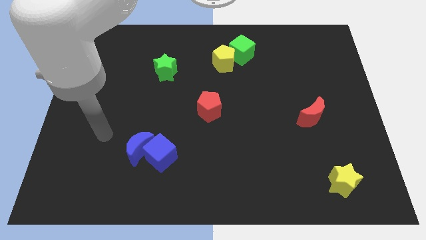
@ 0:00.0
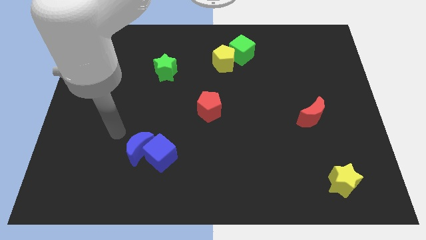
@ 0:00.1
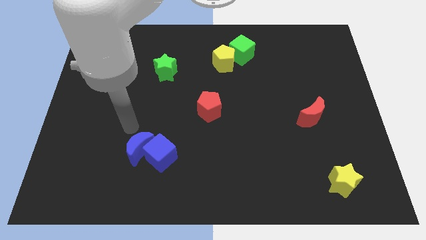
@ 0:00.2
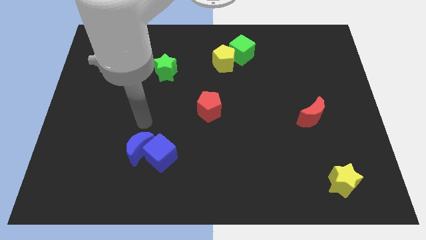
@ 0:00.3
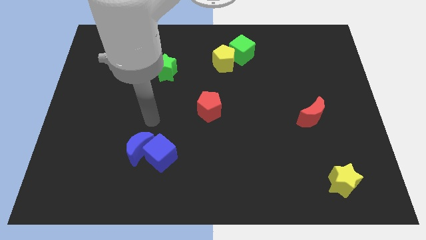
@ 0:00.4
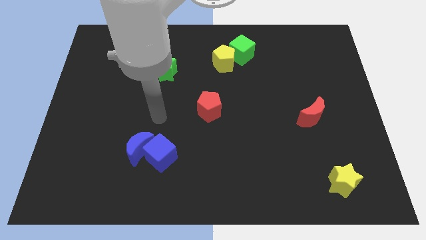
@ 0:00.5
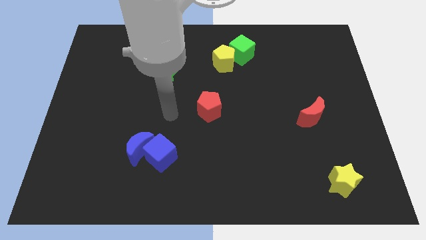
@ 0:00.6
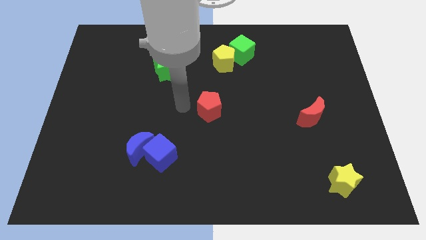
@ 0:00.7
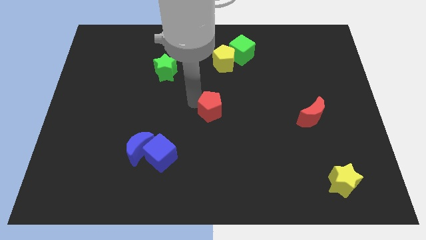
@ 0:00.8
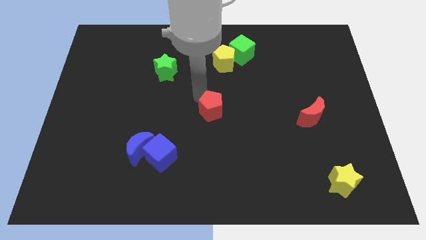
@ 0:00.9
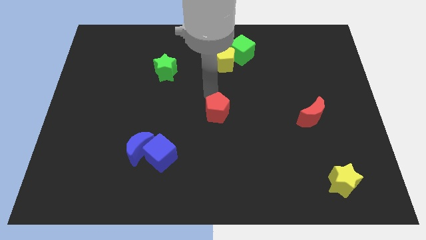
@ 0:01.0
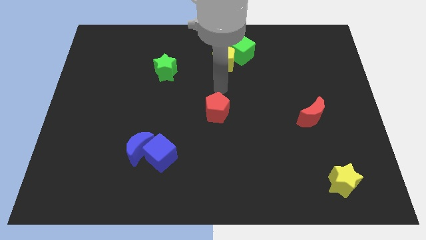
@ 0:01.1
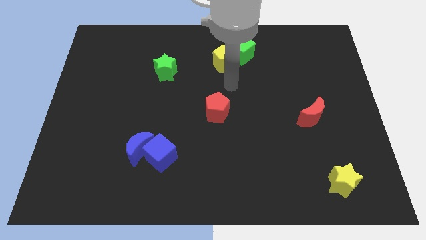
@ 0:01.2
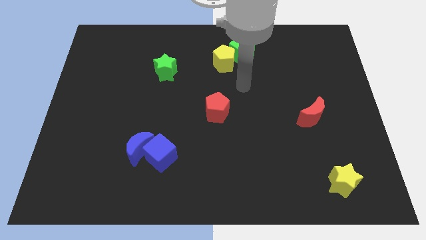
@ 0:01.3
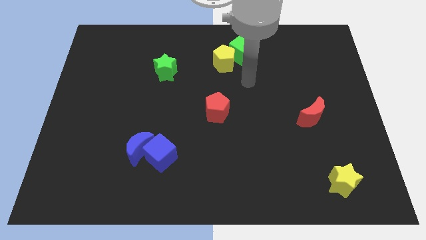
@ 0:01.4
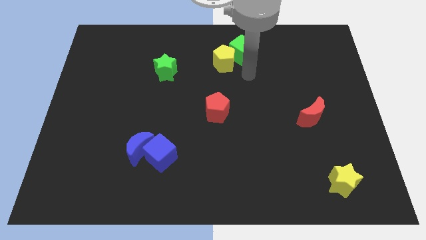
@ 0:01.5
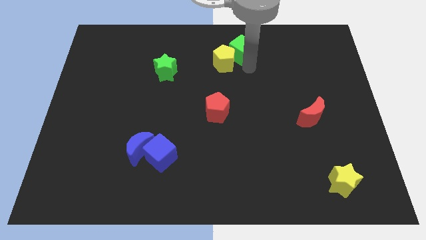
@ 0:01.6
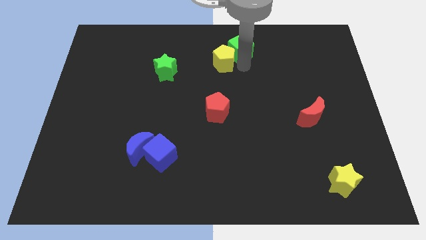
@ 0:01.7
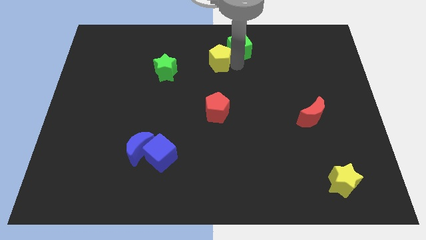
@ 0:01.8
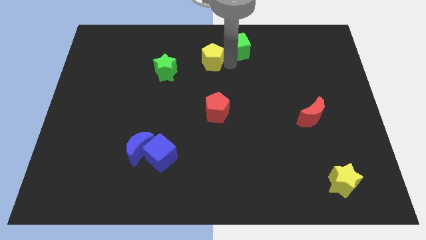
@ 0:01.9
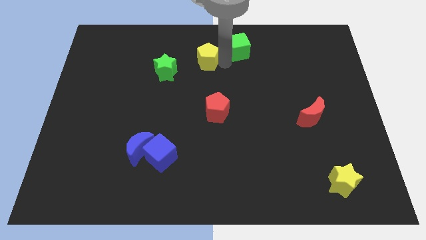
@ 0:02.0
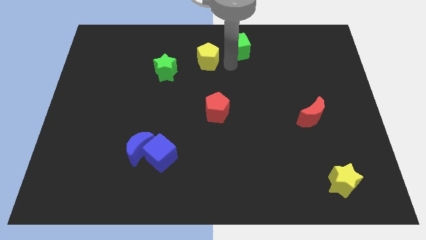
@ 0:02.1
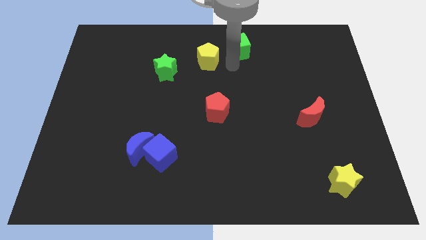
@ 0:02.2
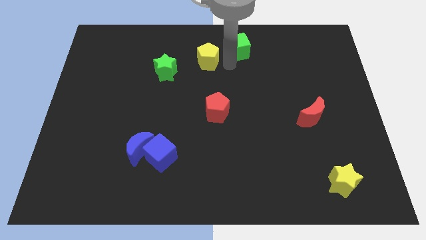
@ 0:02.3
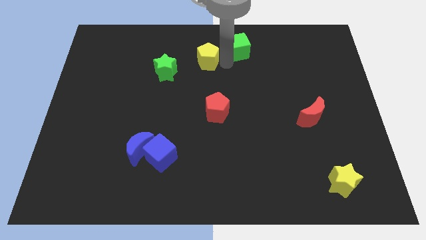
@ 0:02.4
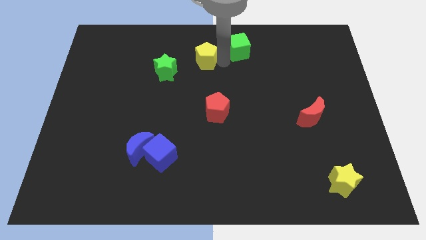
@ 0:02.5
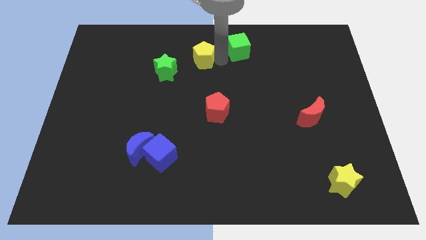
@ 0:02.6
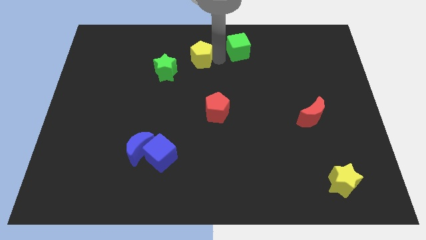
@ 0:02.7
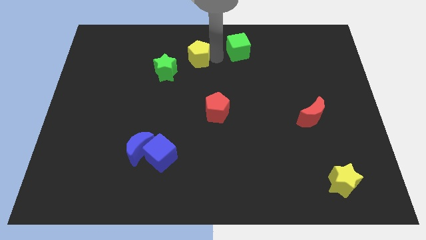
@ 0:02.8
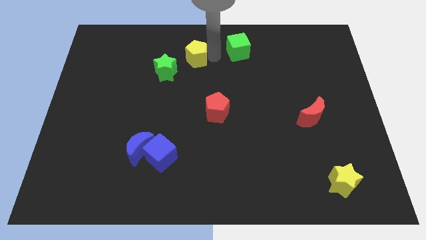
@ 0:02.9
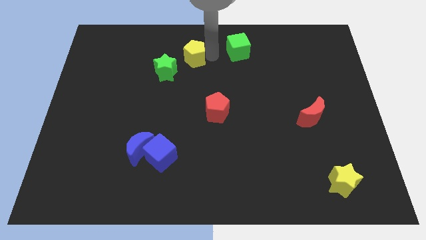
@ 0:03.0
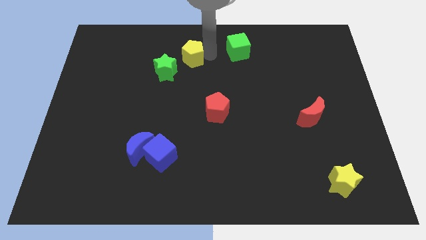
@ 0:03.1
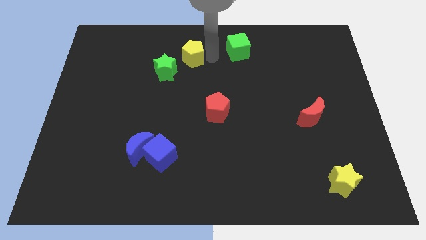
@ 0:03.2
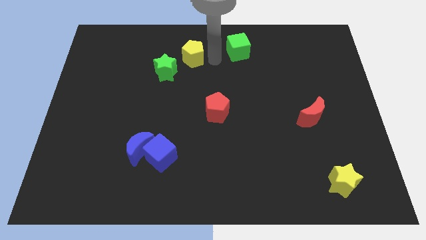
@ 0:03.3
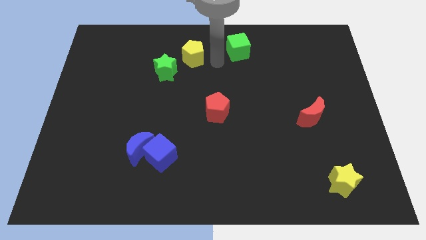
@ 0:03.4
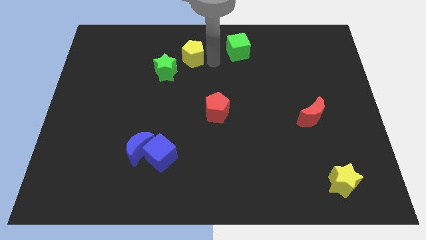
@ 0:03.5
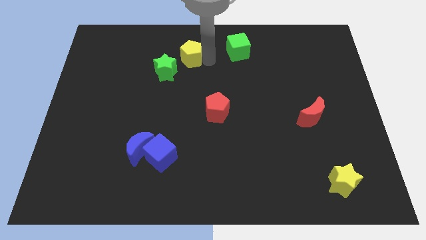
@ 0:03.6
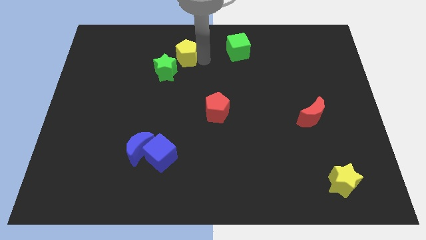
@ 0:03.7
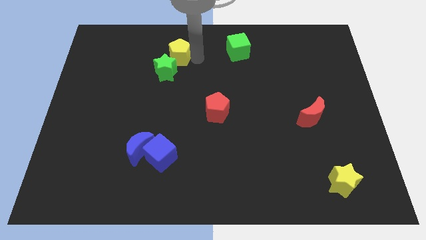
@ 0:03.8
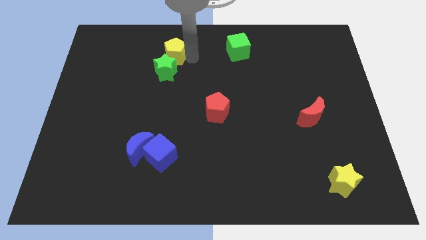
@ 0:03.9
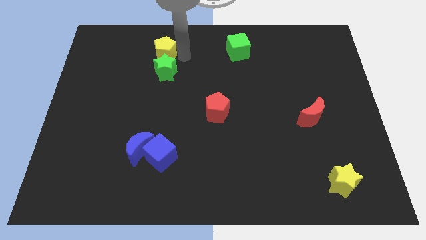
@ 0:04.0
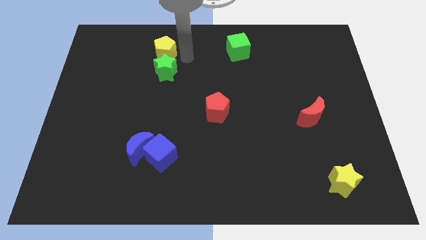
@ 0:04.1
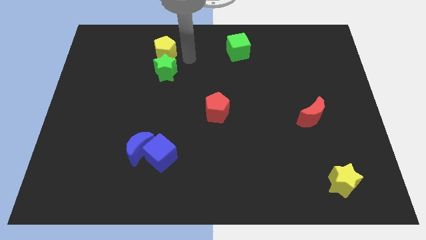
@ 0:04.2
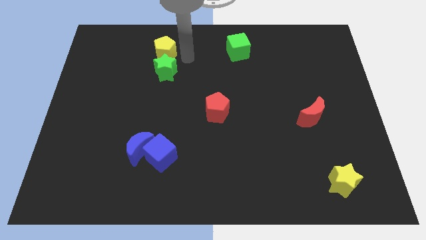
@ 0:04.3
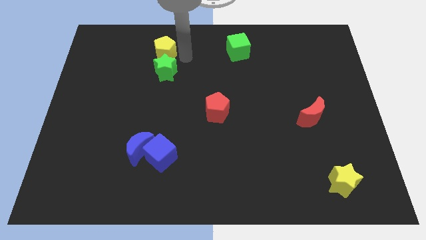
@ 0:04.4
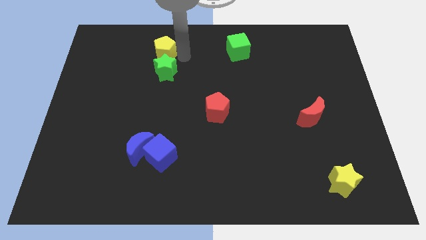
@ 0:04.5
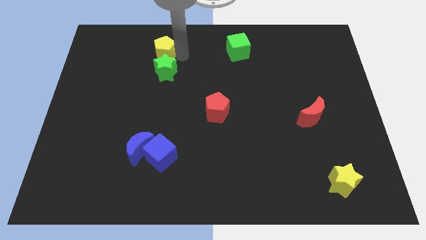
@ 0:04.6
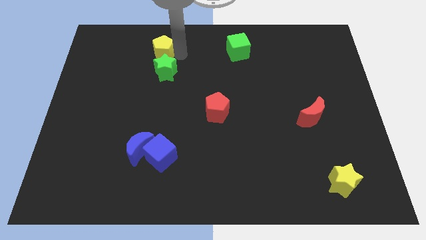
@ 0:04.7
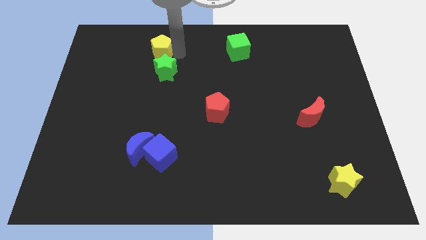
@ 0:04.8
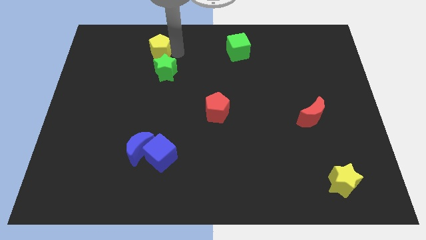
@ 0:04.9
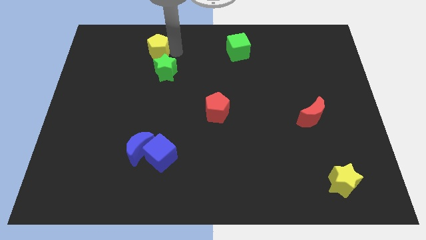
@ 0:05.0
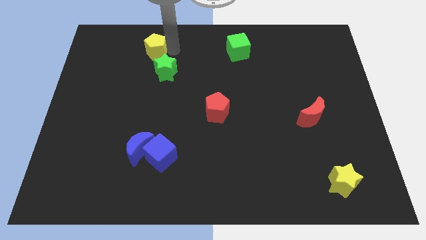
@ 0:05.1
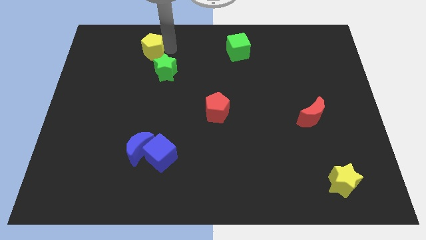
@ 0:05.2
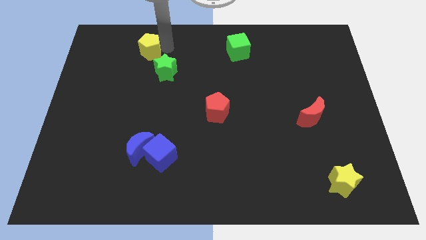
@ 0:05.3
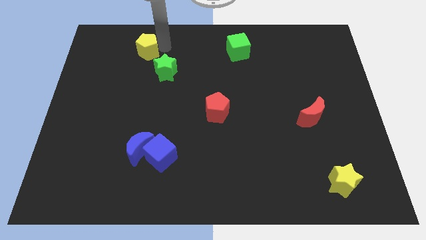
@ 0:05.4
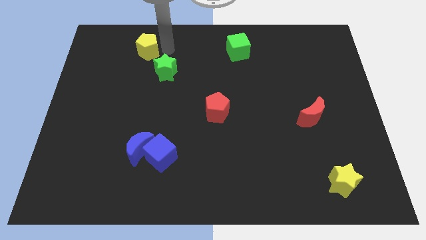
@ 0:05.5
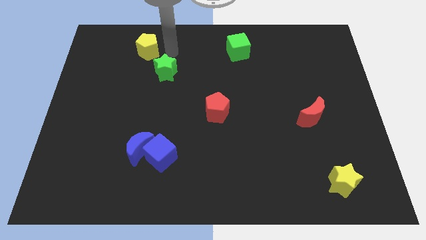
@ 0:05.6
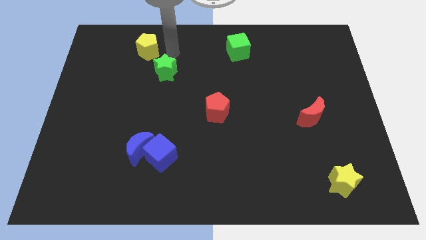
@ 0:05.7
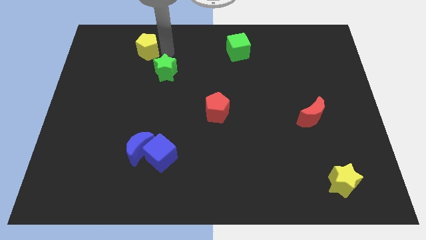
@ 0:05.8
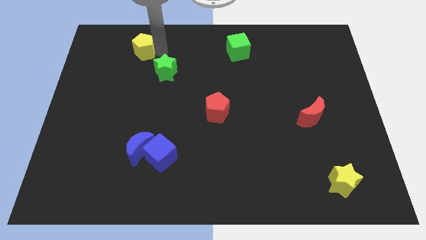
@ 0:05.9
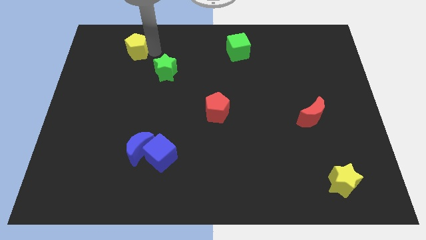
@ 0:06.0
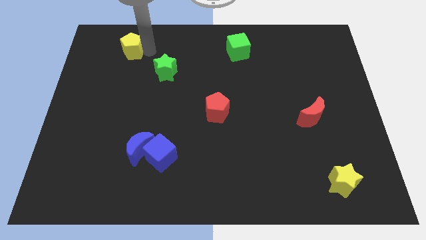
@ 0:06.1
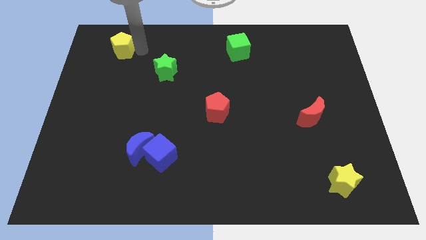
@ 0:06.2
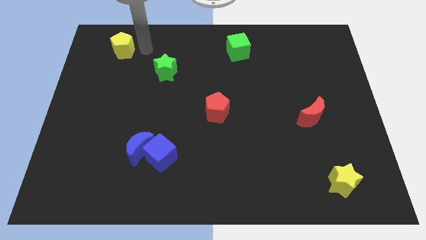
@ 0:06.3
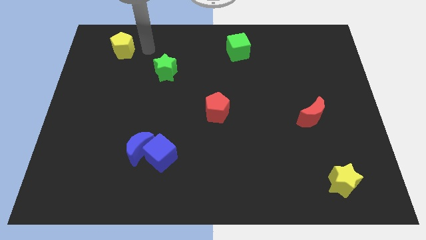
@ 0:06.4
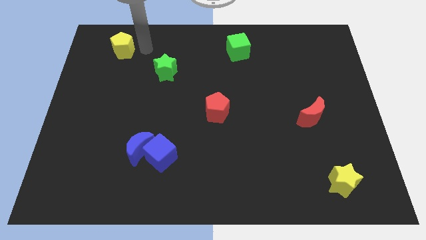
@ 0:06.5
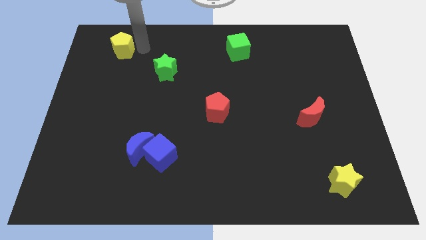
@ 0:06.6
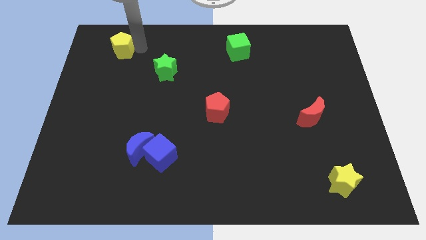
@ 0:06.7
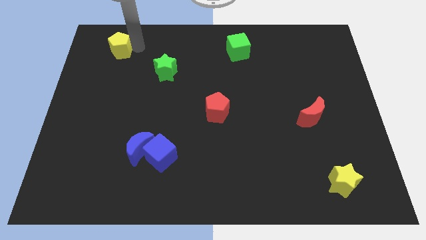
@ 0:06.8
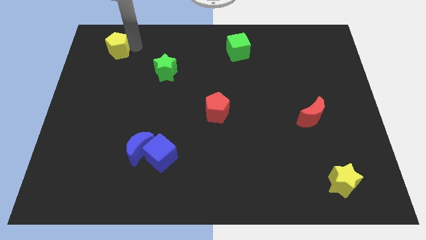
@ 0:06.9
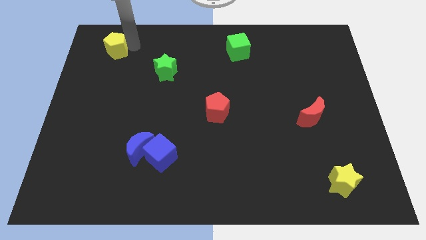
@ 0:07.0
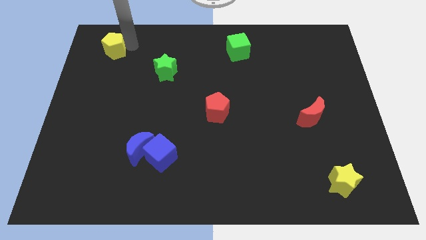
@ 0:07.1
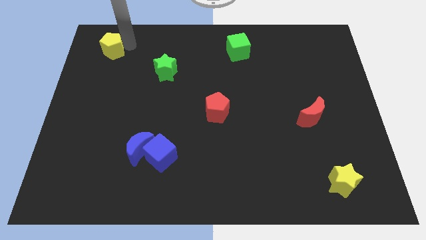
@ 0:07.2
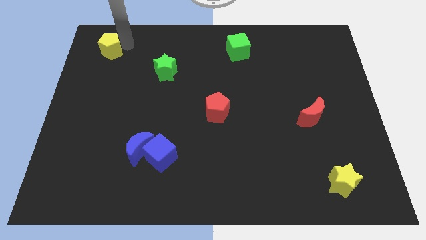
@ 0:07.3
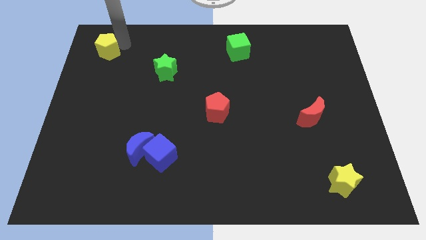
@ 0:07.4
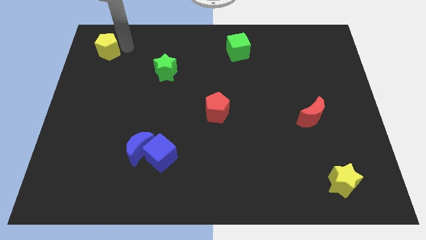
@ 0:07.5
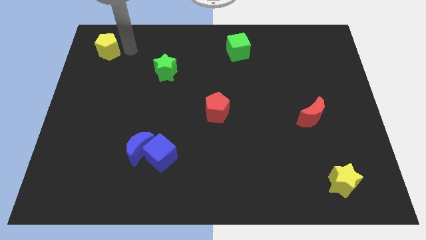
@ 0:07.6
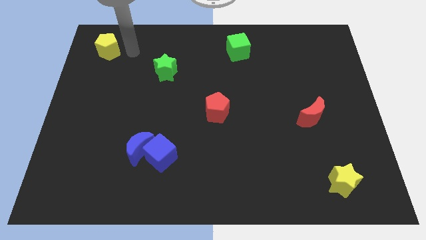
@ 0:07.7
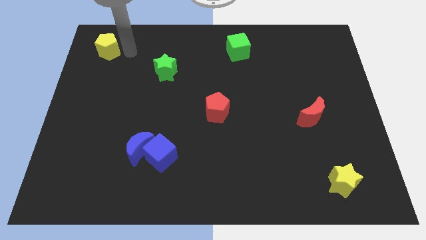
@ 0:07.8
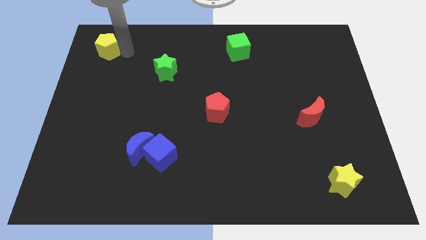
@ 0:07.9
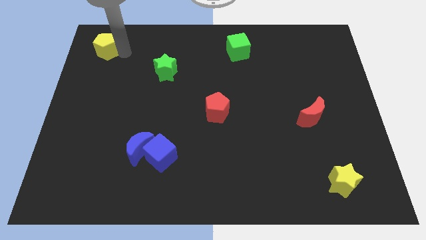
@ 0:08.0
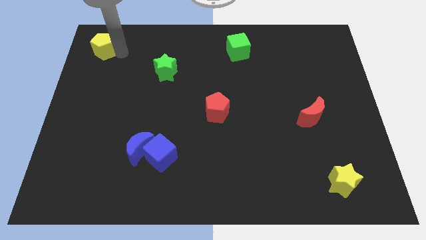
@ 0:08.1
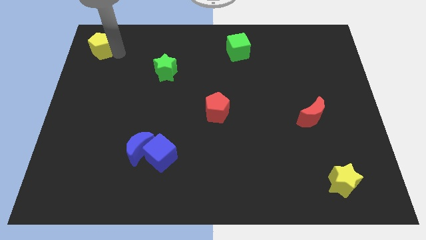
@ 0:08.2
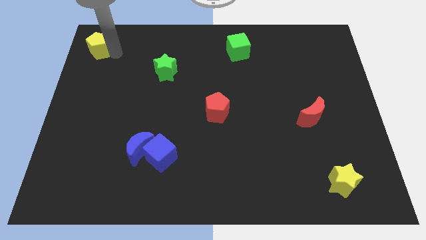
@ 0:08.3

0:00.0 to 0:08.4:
put the yellow pentagon to the upper left corner
